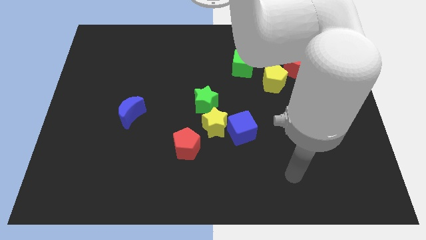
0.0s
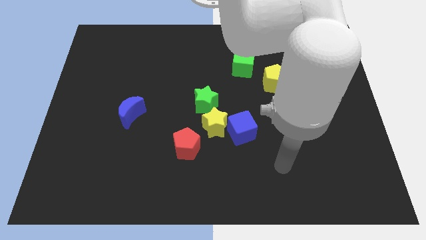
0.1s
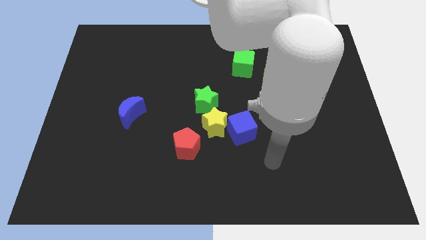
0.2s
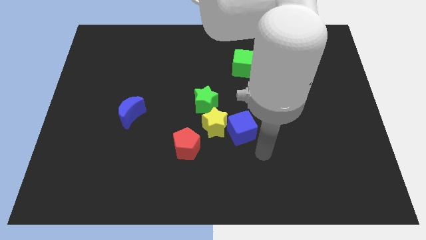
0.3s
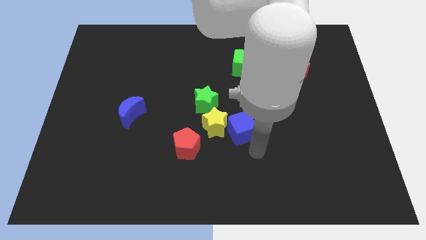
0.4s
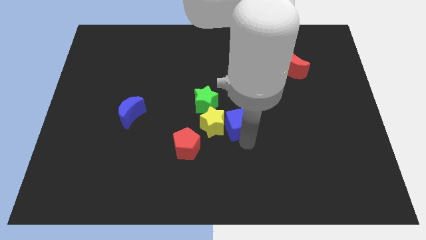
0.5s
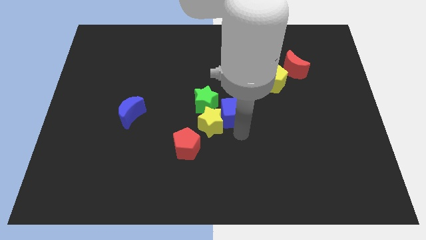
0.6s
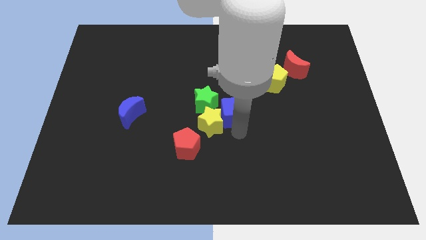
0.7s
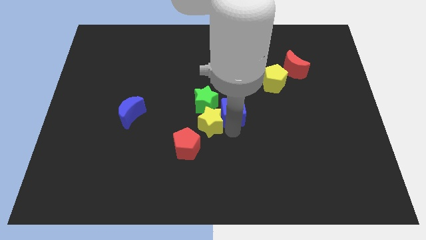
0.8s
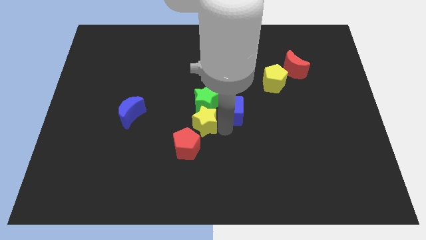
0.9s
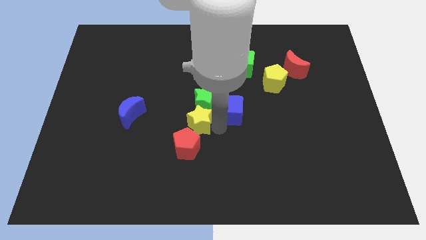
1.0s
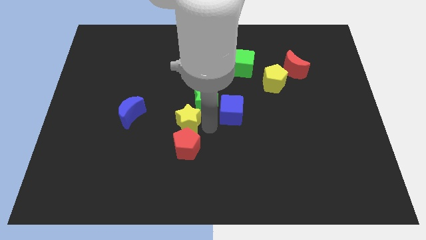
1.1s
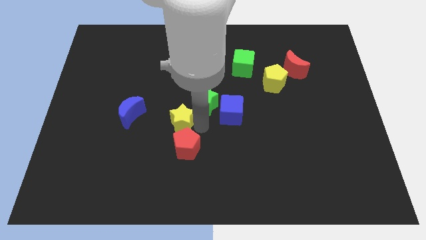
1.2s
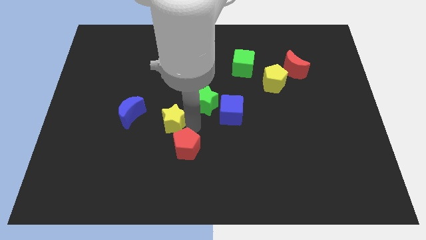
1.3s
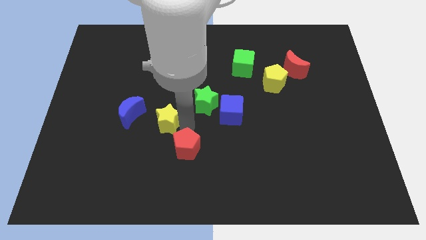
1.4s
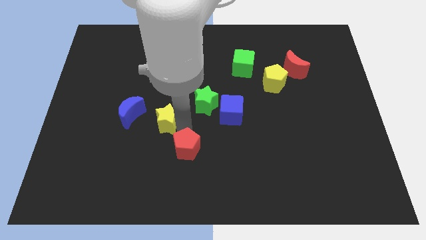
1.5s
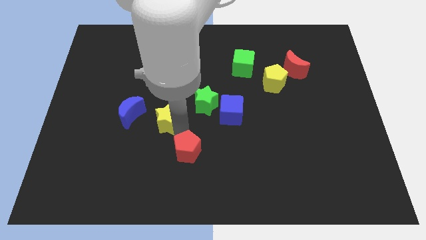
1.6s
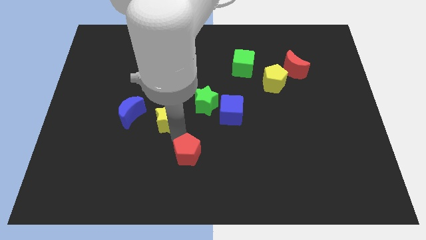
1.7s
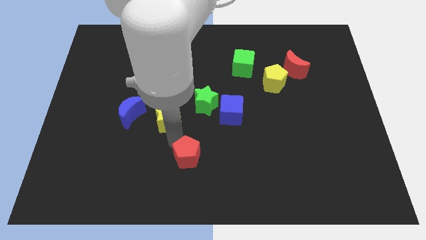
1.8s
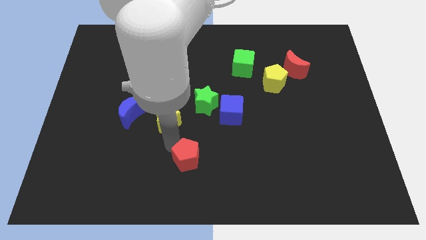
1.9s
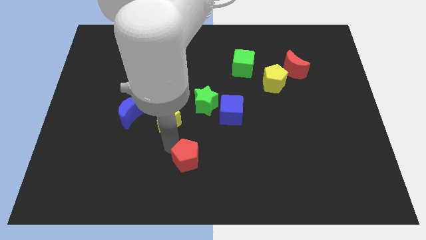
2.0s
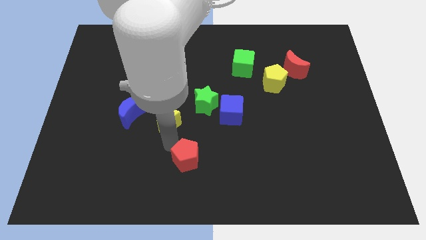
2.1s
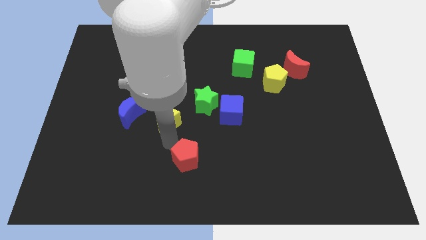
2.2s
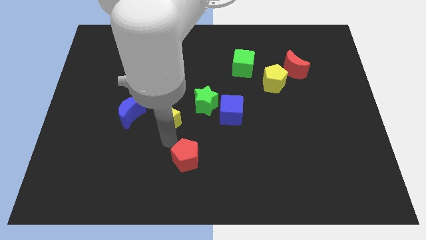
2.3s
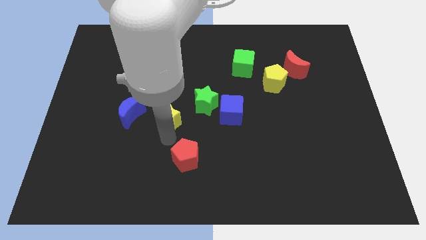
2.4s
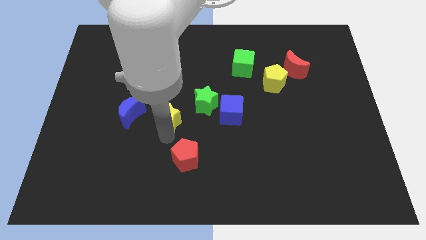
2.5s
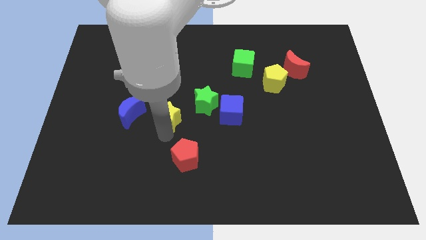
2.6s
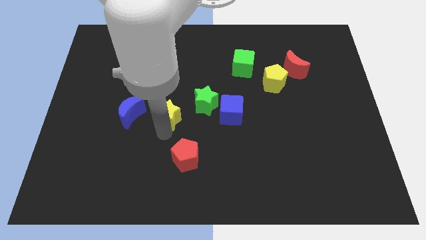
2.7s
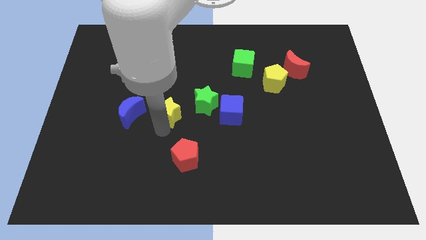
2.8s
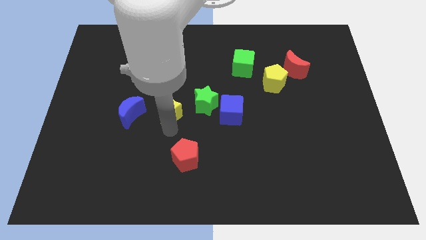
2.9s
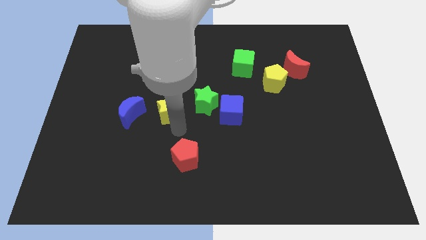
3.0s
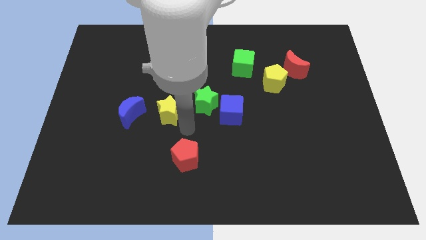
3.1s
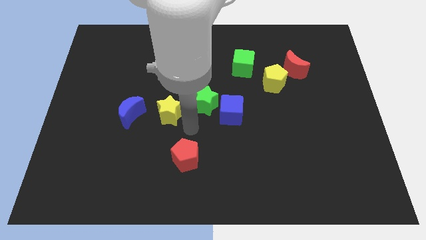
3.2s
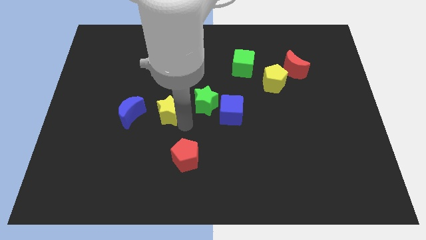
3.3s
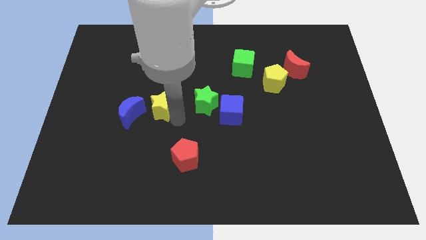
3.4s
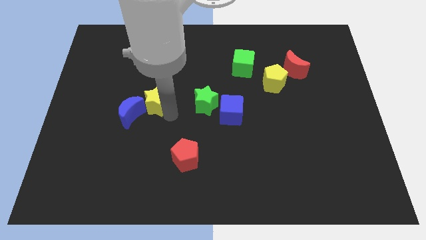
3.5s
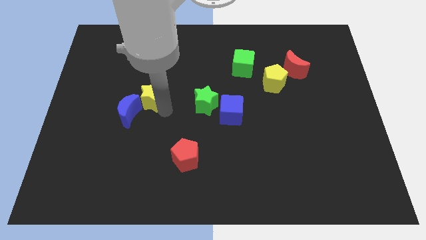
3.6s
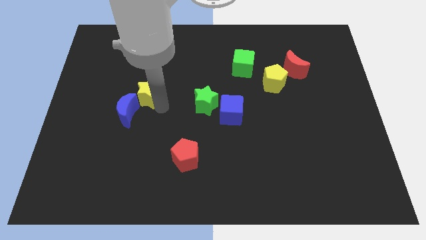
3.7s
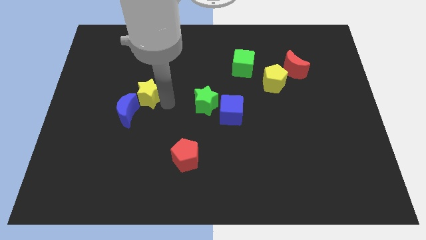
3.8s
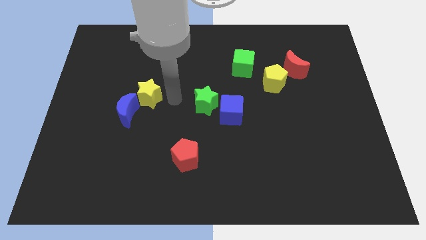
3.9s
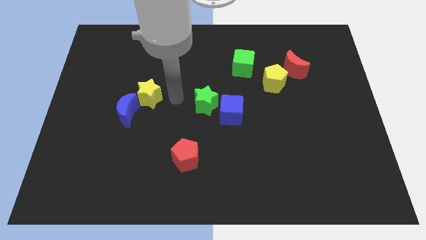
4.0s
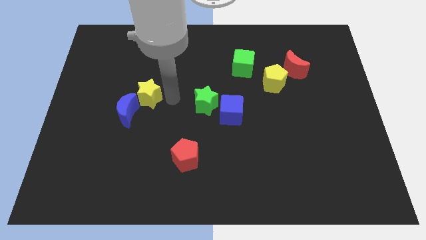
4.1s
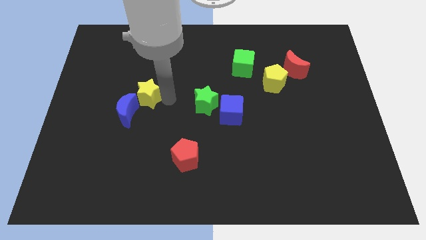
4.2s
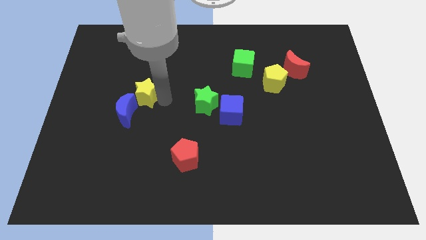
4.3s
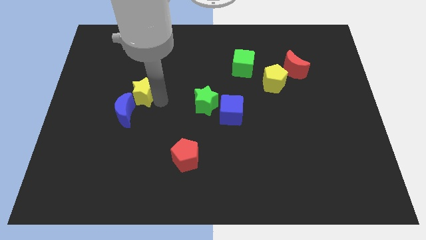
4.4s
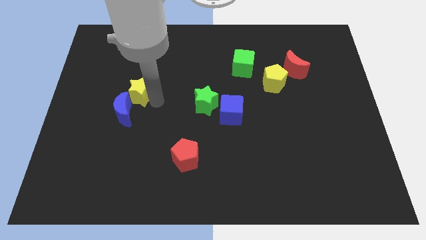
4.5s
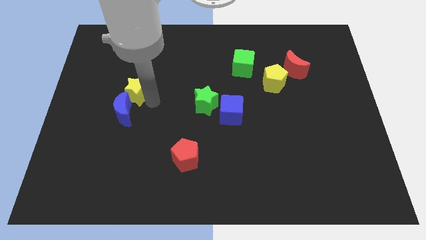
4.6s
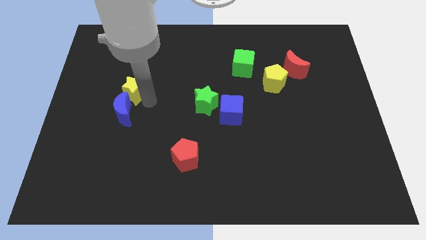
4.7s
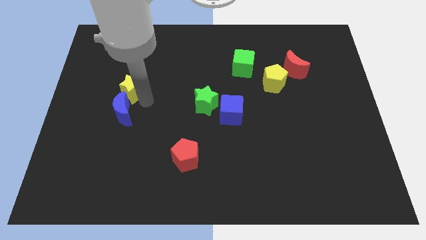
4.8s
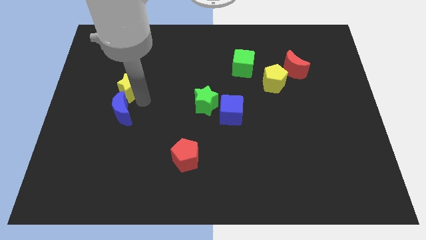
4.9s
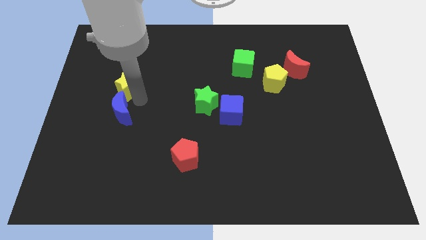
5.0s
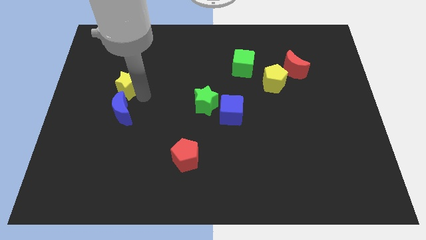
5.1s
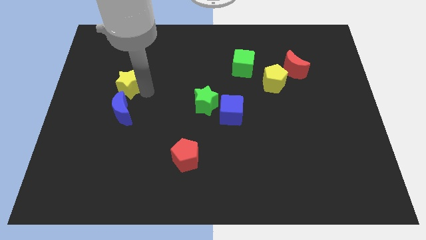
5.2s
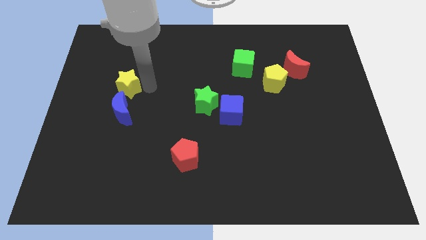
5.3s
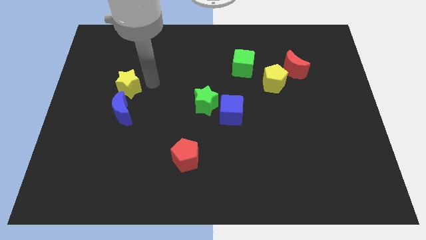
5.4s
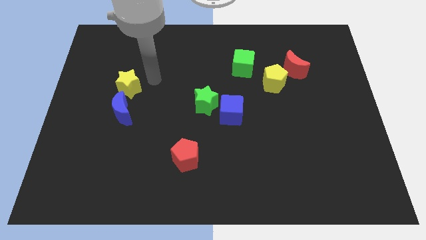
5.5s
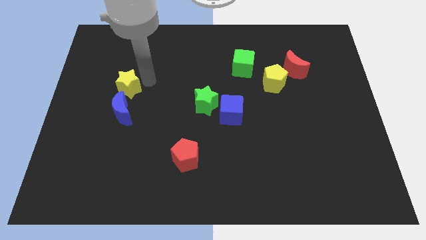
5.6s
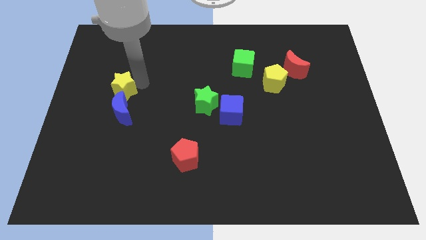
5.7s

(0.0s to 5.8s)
move the yellow star diagonally up and to the left of the blue moon

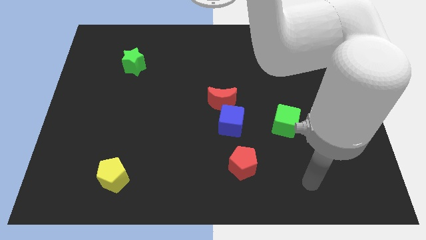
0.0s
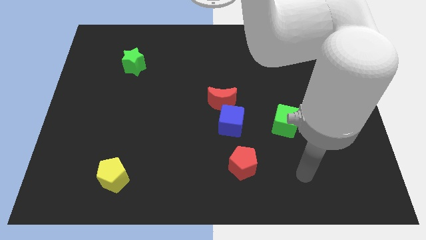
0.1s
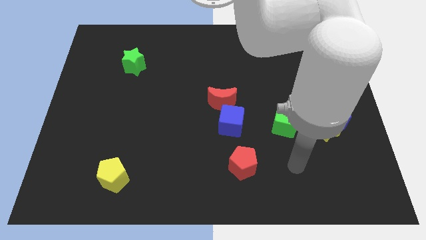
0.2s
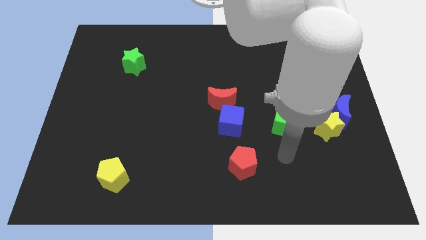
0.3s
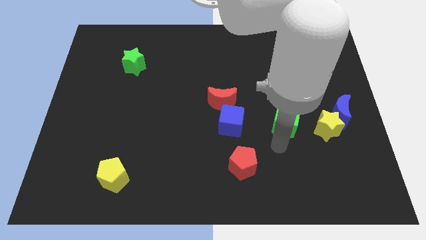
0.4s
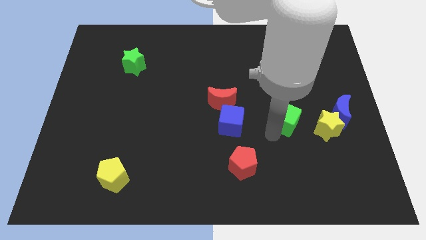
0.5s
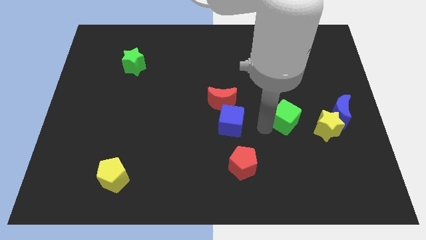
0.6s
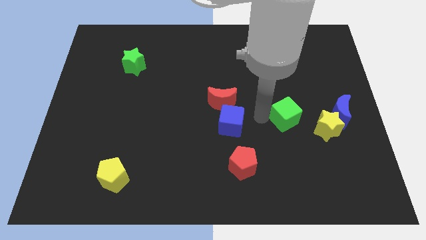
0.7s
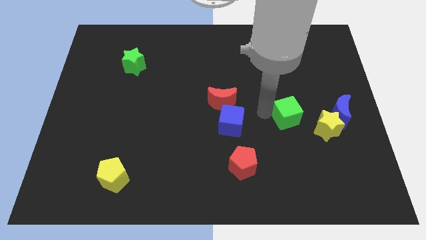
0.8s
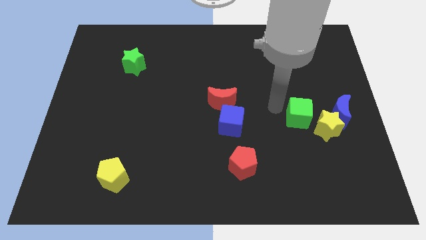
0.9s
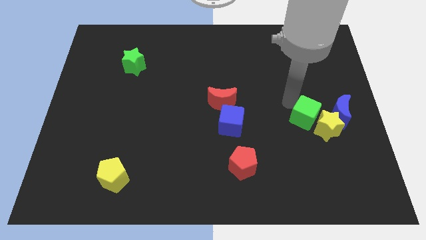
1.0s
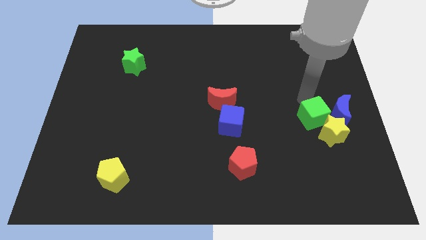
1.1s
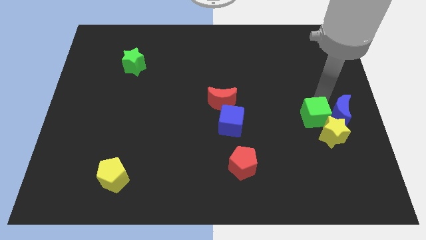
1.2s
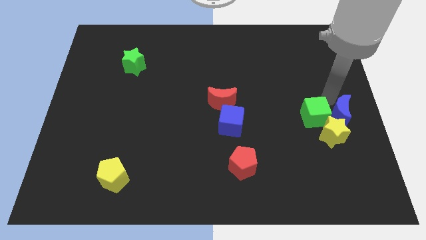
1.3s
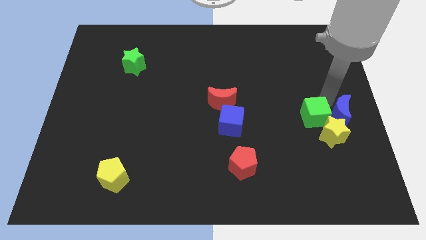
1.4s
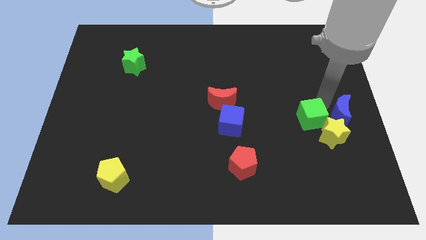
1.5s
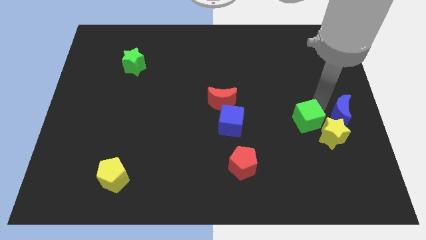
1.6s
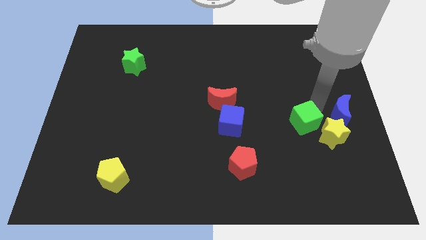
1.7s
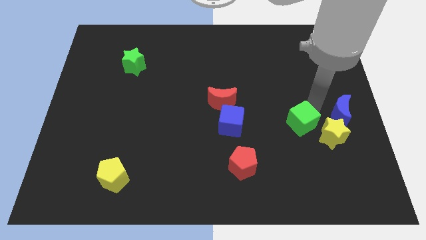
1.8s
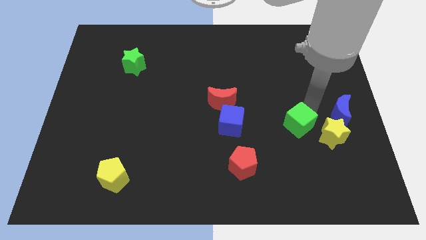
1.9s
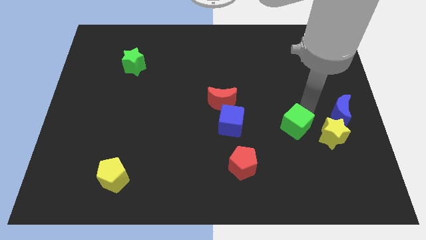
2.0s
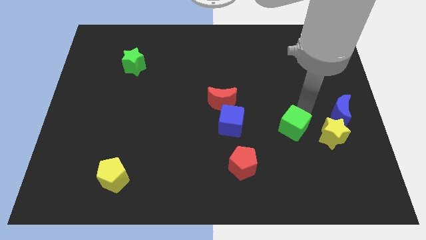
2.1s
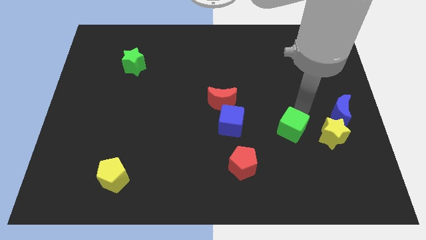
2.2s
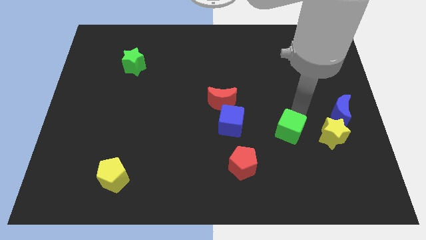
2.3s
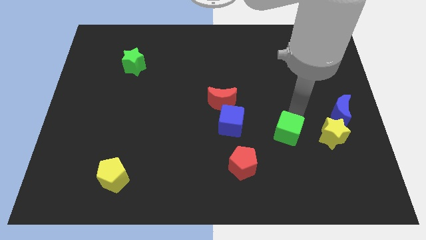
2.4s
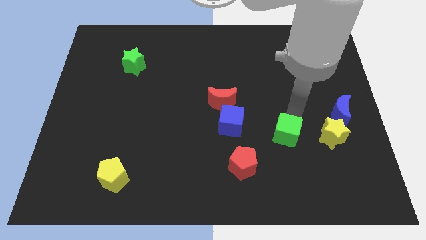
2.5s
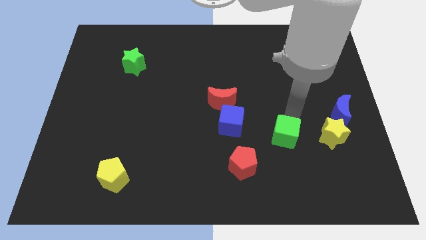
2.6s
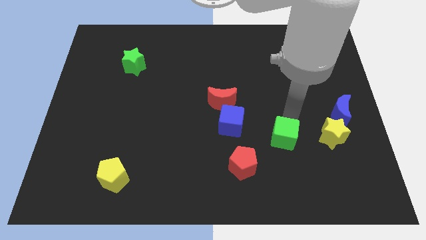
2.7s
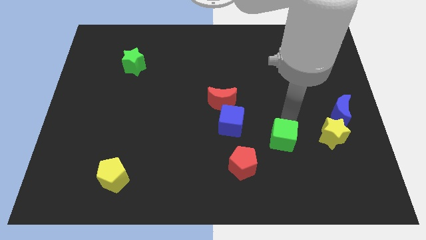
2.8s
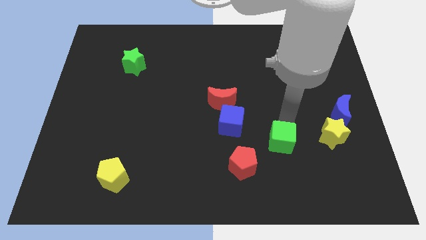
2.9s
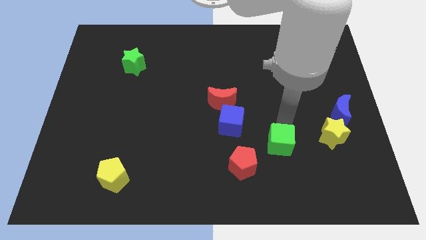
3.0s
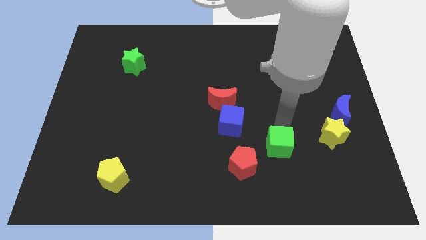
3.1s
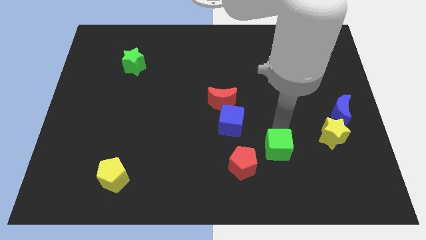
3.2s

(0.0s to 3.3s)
push the green cube right of the red pentagon
